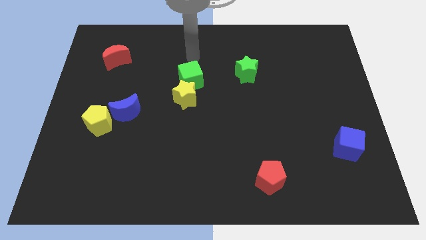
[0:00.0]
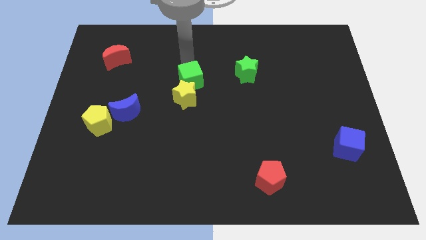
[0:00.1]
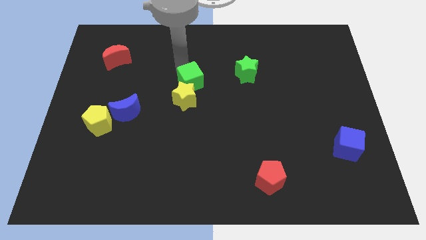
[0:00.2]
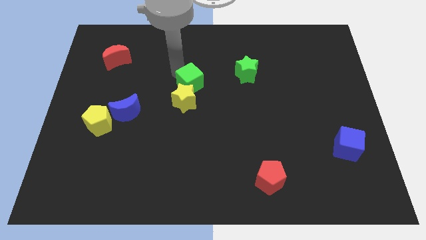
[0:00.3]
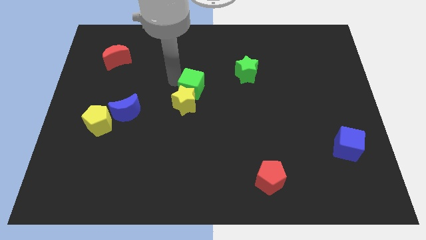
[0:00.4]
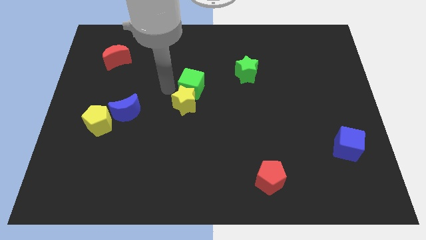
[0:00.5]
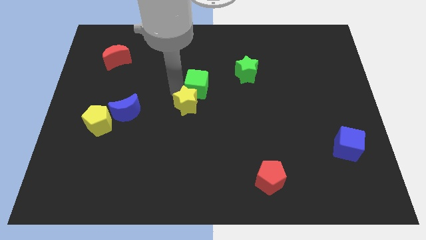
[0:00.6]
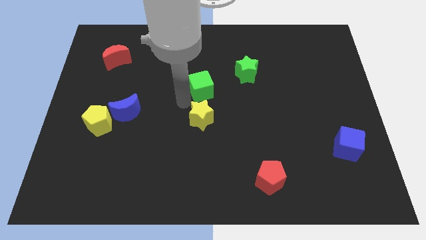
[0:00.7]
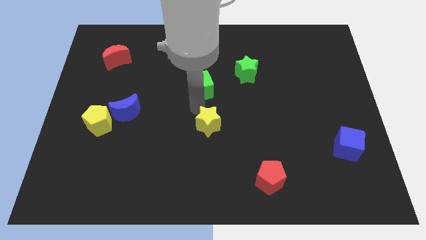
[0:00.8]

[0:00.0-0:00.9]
move the green cube away from the yellow star

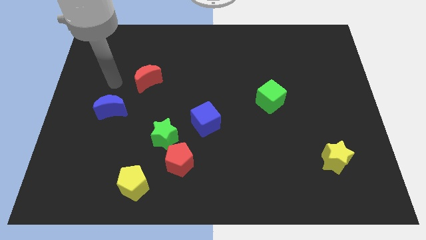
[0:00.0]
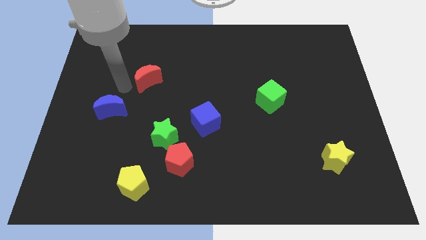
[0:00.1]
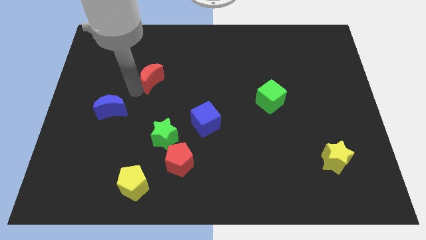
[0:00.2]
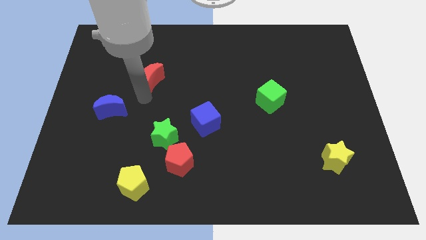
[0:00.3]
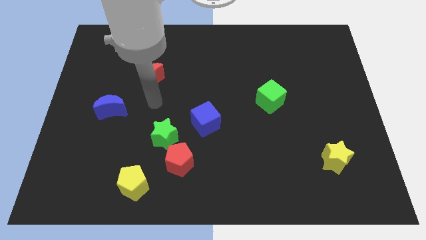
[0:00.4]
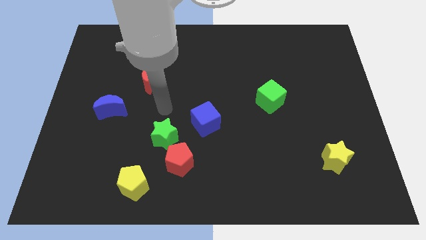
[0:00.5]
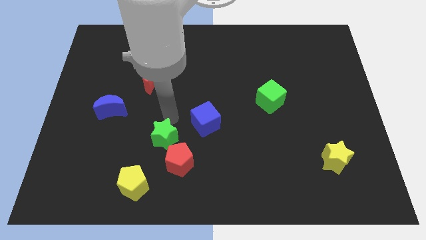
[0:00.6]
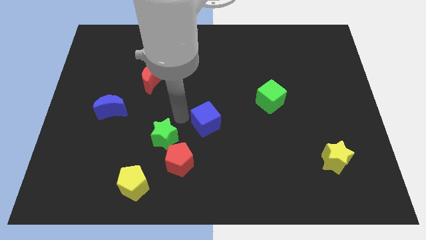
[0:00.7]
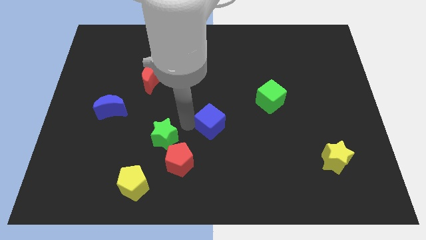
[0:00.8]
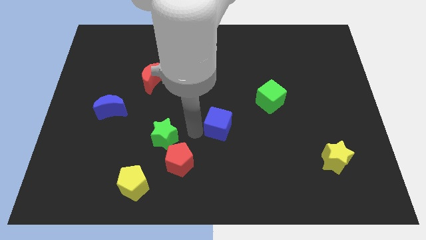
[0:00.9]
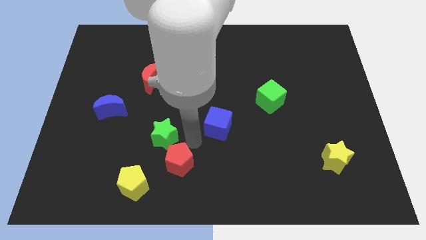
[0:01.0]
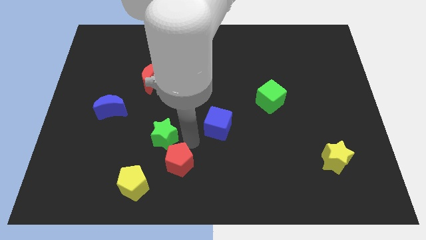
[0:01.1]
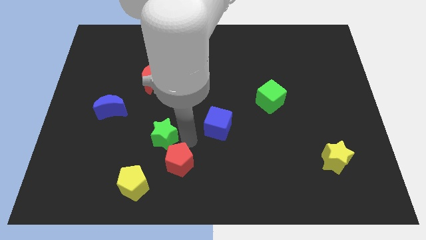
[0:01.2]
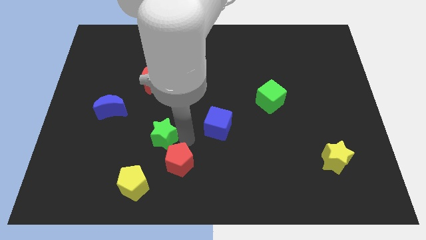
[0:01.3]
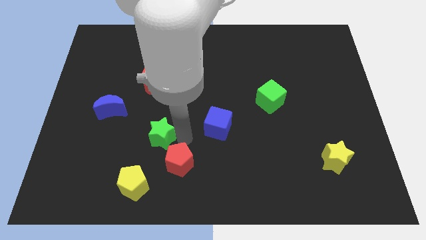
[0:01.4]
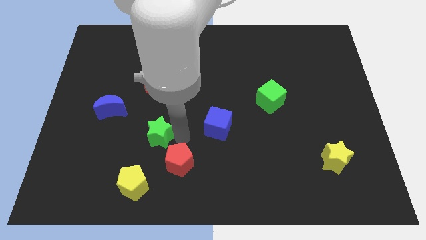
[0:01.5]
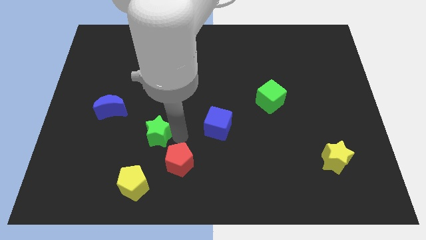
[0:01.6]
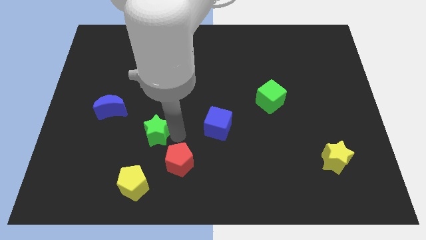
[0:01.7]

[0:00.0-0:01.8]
move the green star away from the red pentagon and blue cube

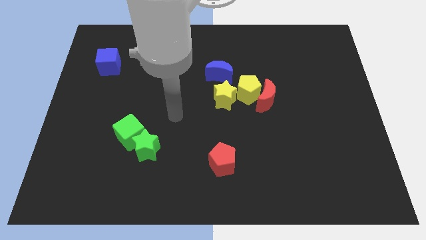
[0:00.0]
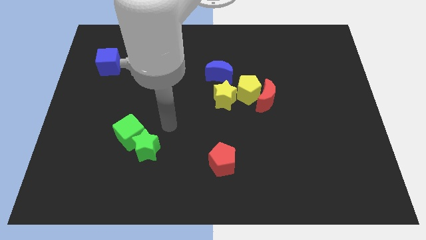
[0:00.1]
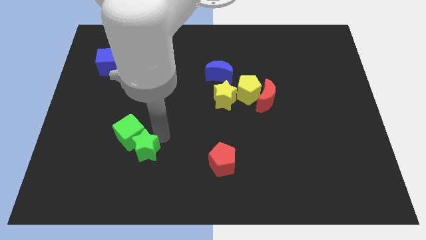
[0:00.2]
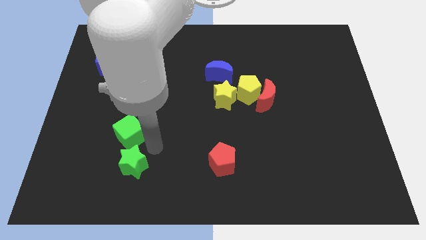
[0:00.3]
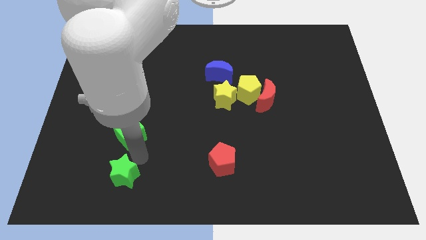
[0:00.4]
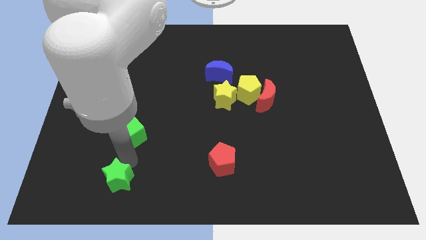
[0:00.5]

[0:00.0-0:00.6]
pull the green cube apart from the green star

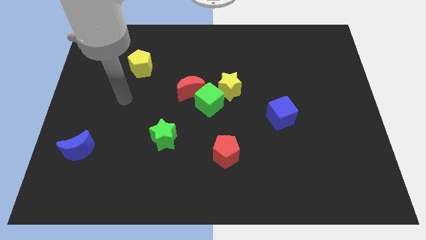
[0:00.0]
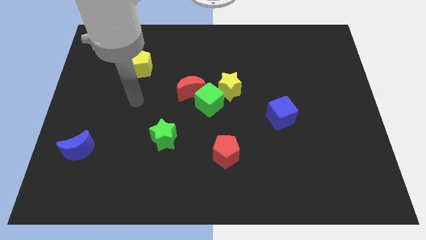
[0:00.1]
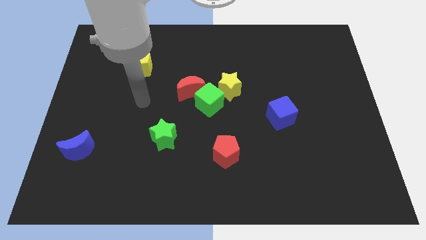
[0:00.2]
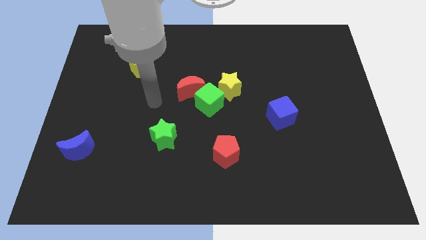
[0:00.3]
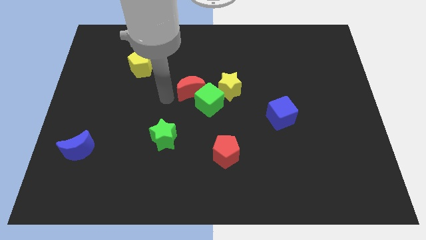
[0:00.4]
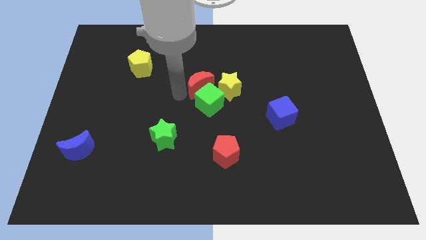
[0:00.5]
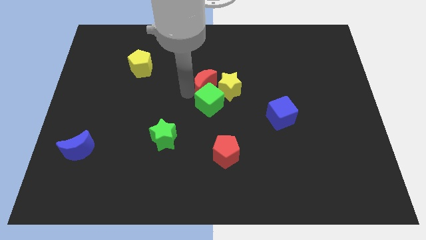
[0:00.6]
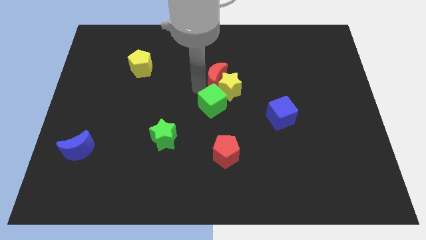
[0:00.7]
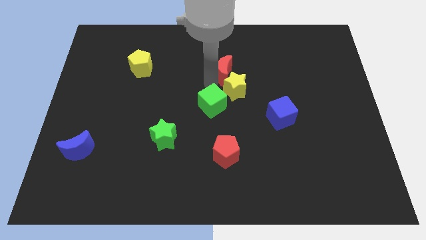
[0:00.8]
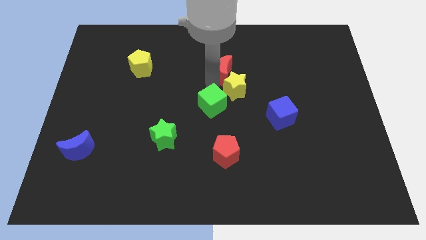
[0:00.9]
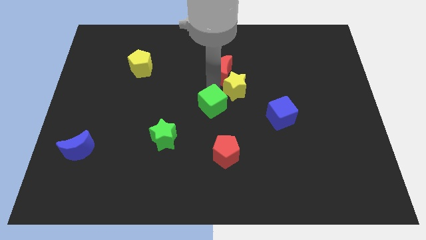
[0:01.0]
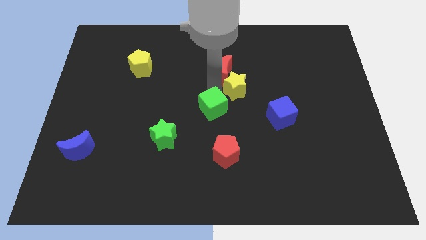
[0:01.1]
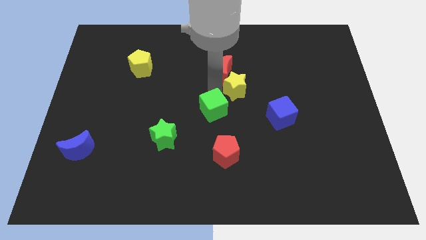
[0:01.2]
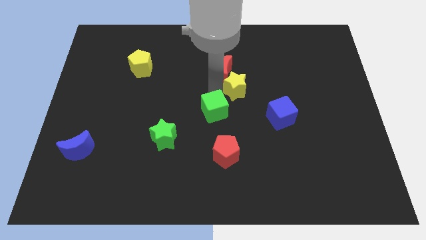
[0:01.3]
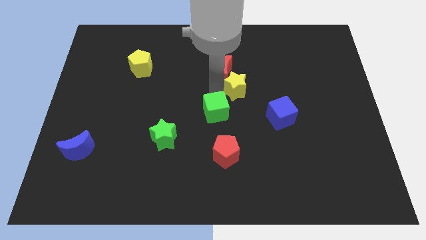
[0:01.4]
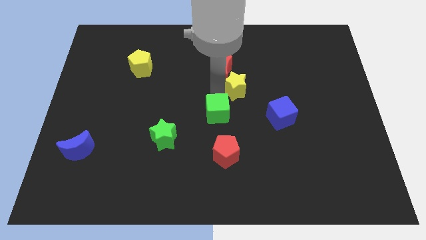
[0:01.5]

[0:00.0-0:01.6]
separate the green cube from the red moon and yellow star

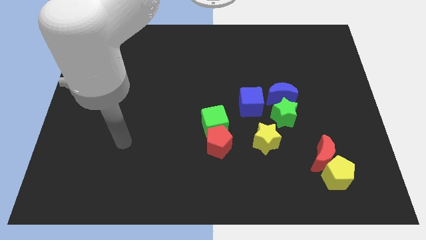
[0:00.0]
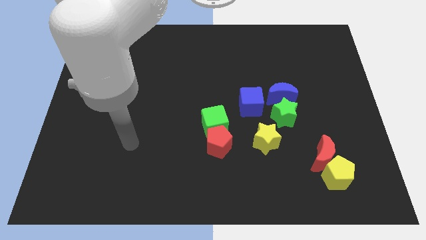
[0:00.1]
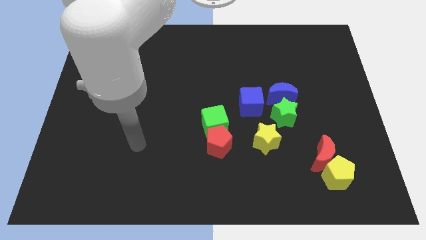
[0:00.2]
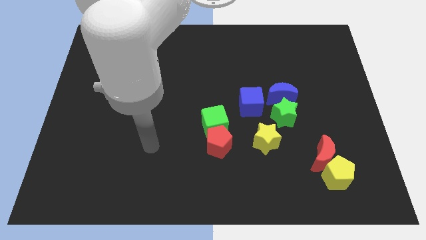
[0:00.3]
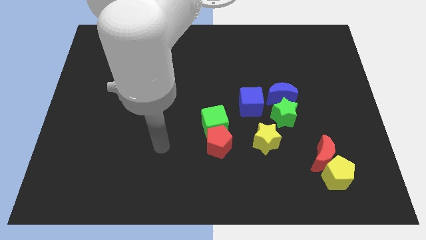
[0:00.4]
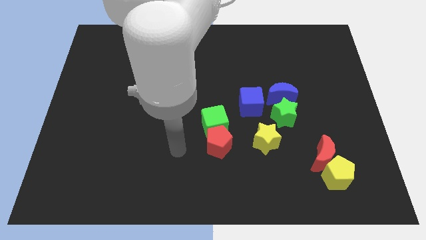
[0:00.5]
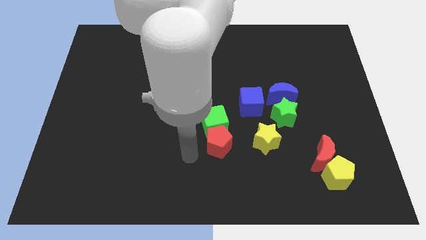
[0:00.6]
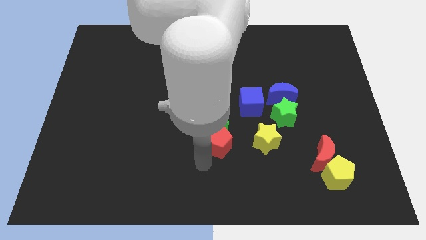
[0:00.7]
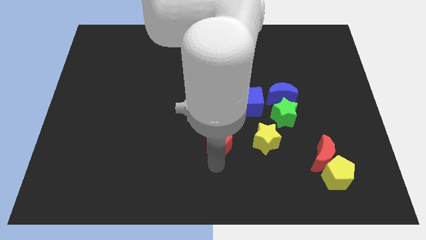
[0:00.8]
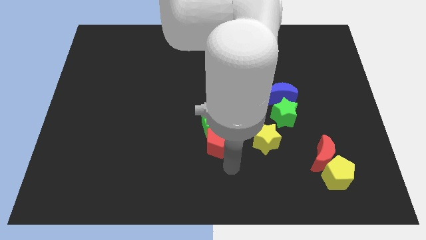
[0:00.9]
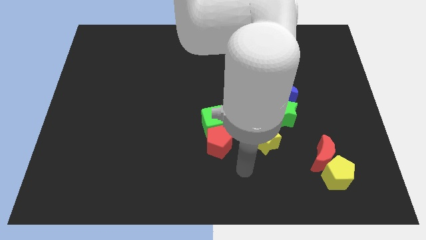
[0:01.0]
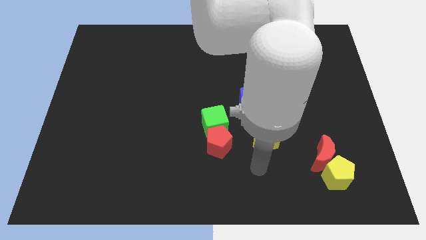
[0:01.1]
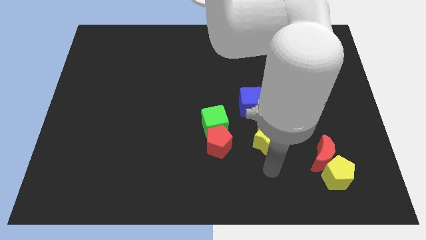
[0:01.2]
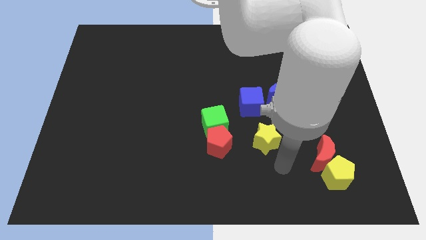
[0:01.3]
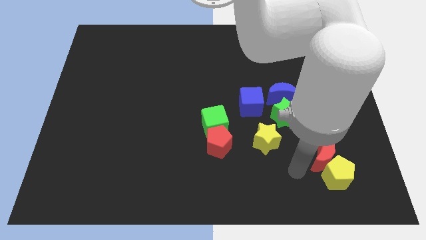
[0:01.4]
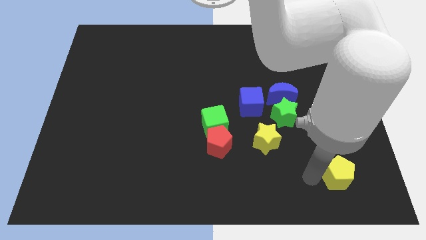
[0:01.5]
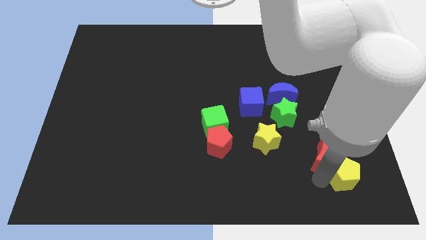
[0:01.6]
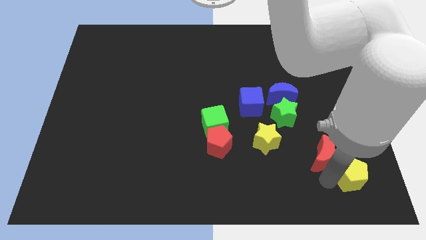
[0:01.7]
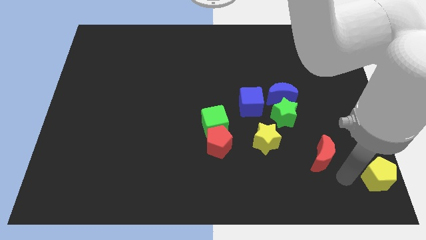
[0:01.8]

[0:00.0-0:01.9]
separate the red moon from the yellow pentagon

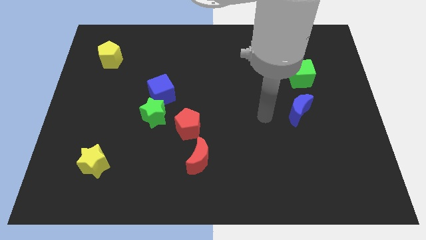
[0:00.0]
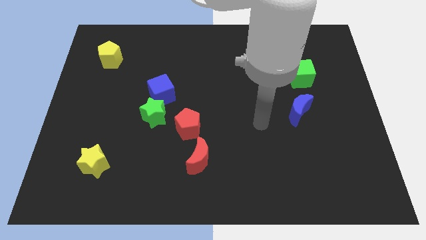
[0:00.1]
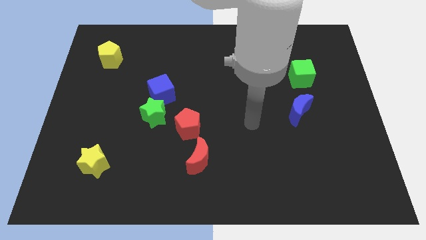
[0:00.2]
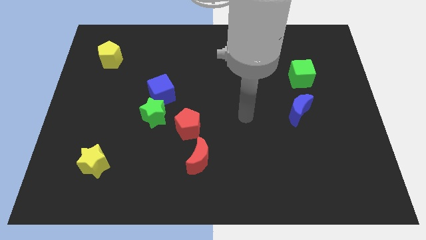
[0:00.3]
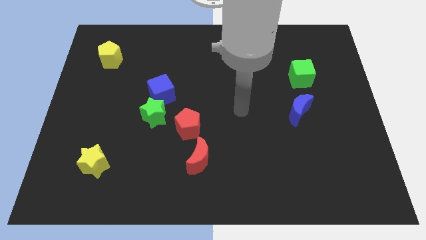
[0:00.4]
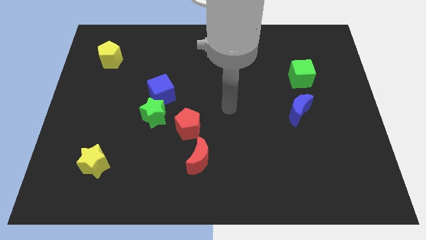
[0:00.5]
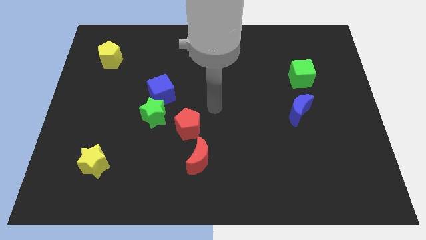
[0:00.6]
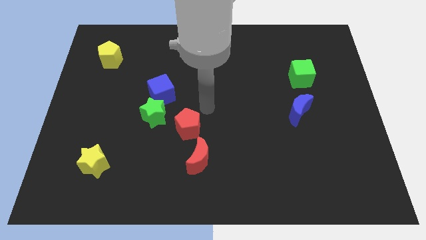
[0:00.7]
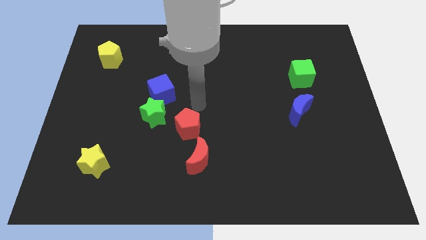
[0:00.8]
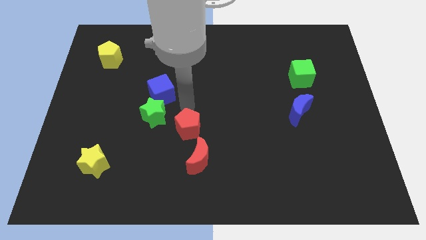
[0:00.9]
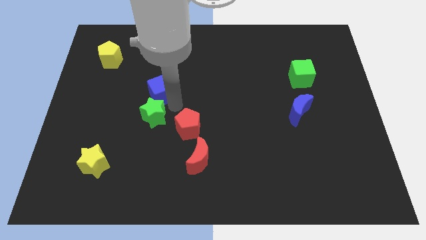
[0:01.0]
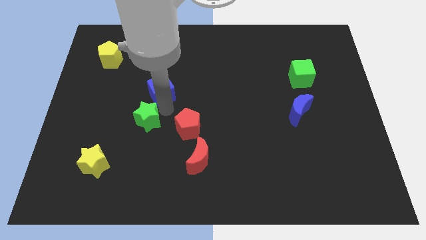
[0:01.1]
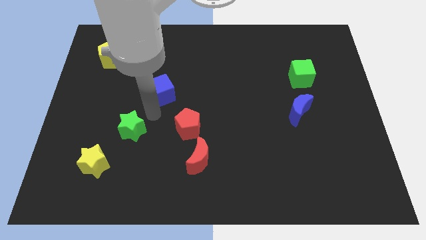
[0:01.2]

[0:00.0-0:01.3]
pull the blue cube apart from the green star

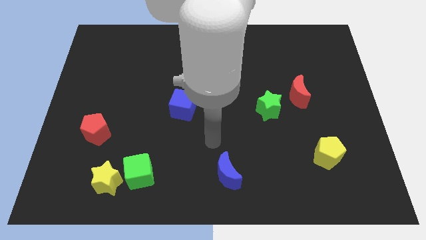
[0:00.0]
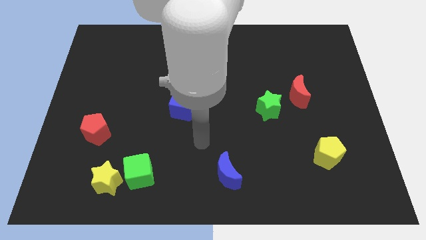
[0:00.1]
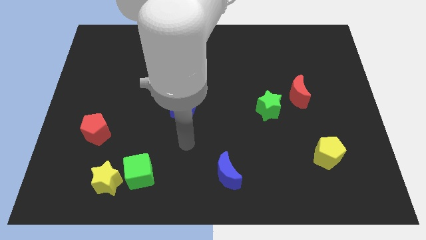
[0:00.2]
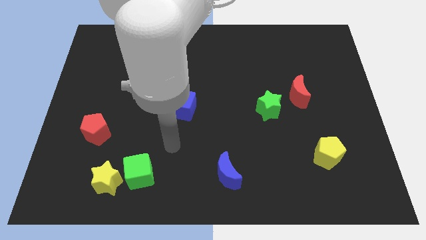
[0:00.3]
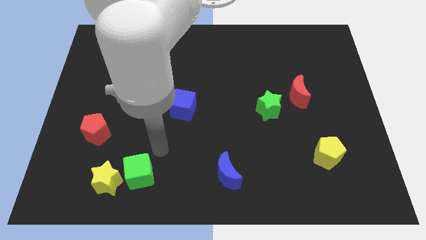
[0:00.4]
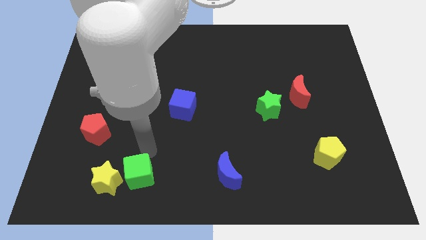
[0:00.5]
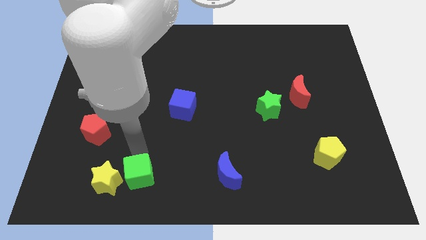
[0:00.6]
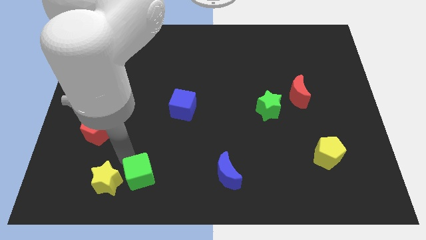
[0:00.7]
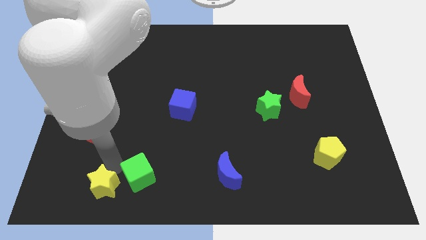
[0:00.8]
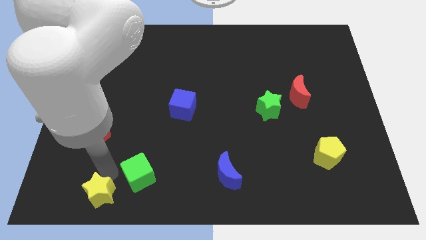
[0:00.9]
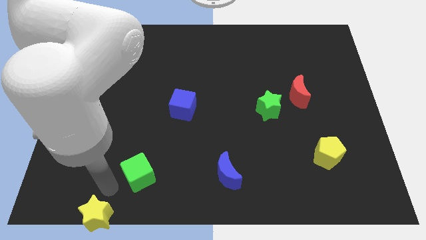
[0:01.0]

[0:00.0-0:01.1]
pull the green cube apart from the yellow star

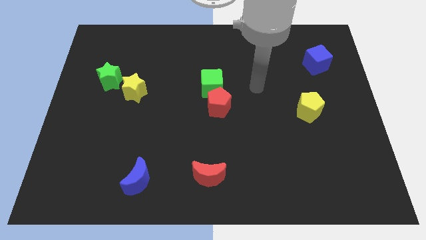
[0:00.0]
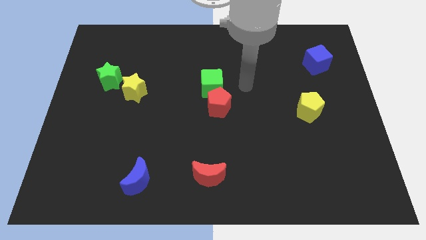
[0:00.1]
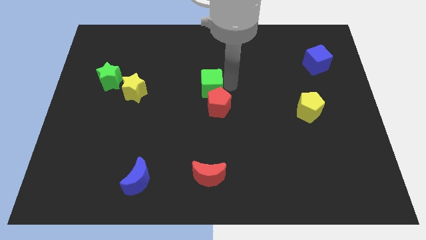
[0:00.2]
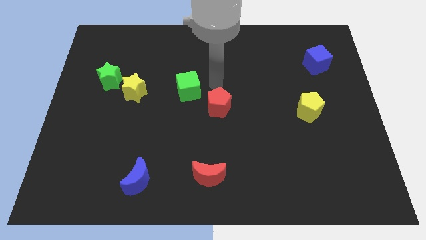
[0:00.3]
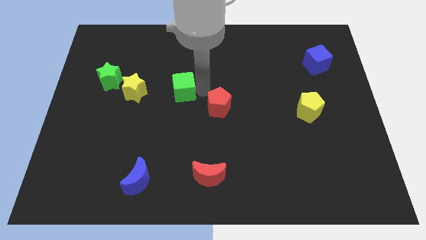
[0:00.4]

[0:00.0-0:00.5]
pull the red pentagon apart from the green cube
